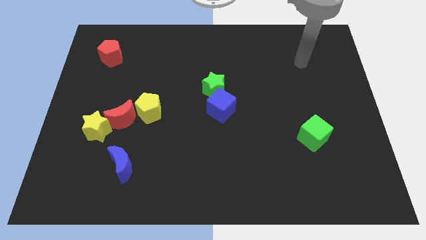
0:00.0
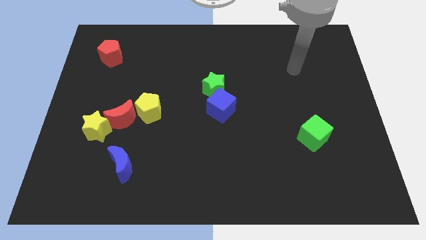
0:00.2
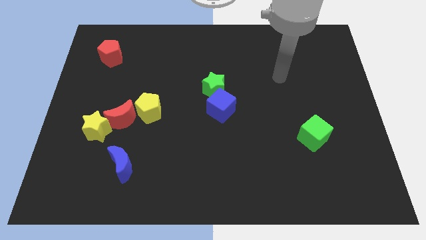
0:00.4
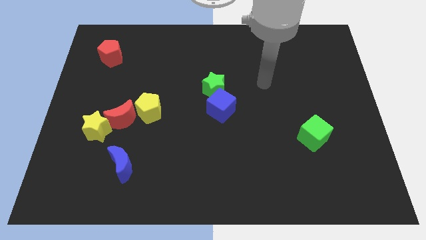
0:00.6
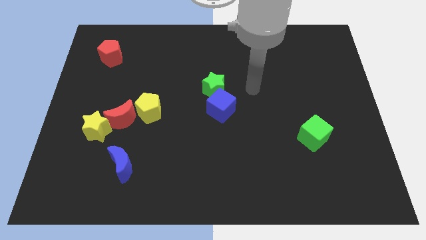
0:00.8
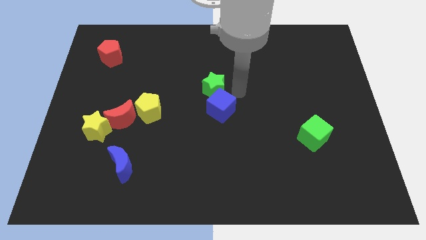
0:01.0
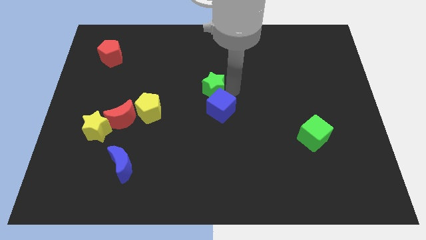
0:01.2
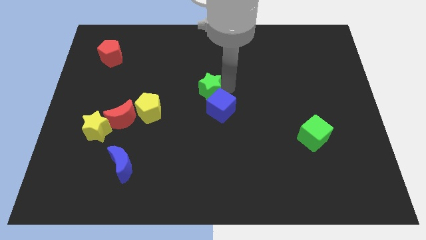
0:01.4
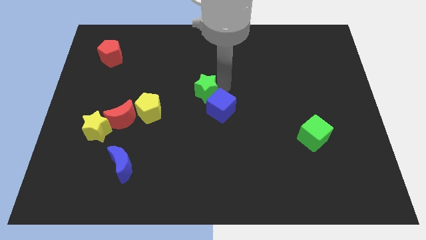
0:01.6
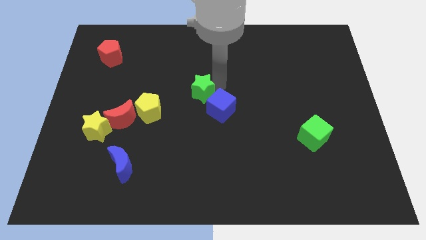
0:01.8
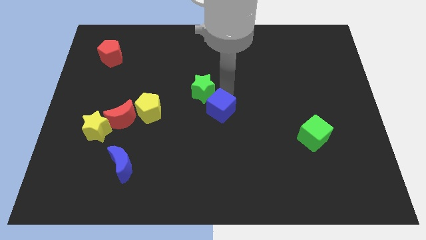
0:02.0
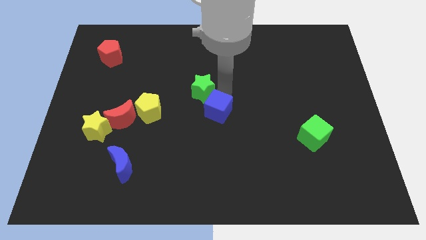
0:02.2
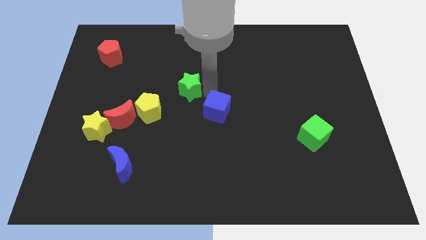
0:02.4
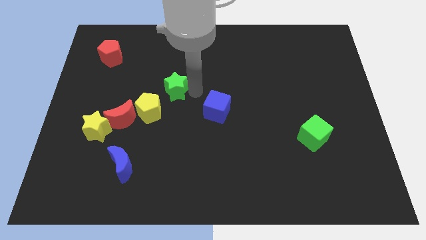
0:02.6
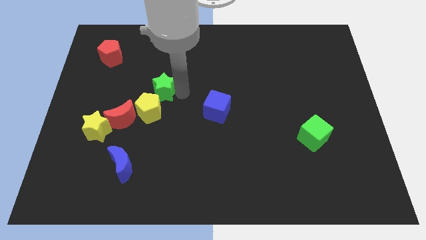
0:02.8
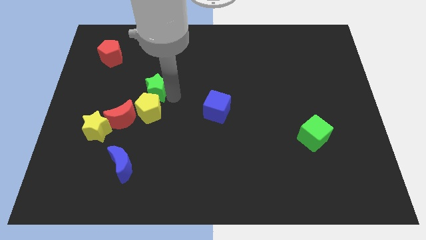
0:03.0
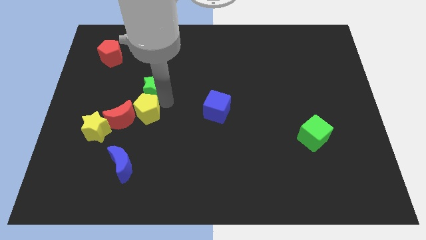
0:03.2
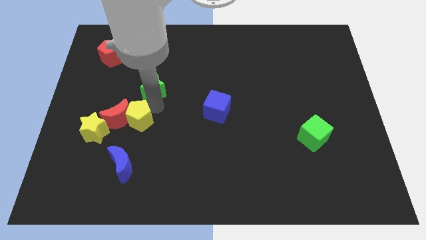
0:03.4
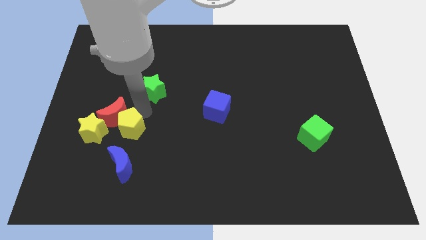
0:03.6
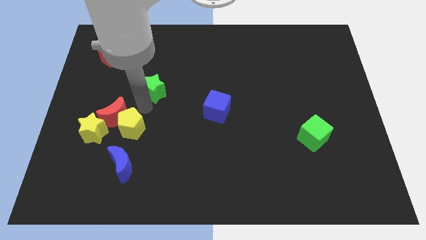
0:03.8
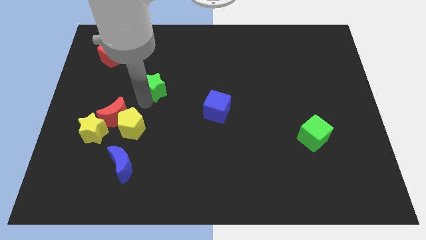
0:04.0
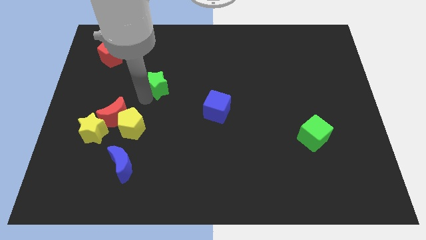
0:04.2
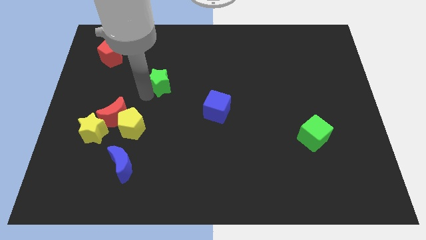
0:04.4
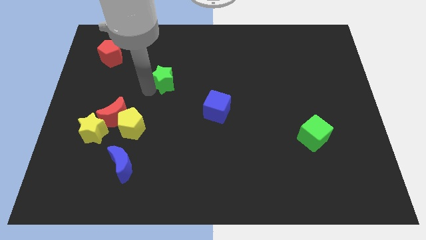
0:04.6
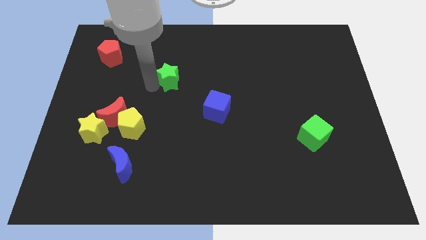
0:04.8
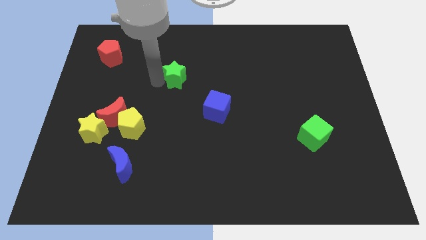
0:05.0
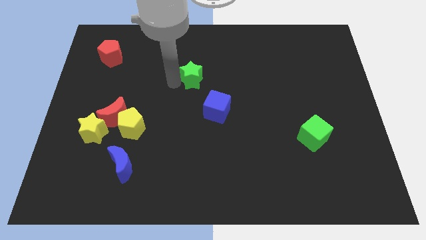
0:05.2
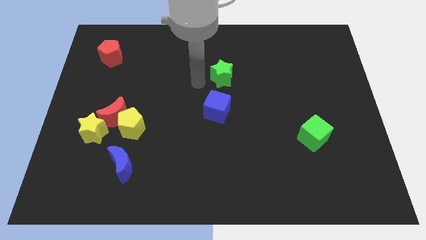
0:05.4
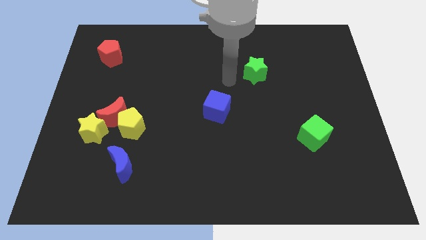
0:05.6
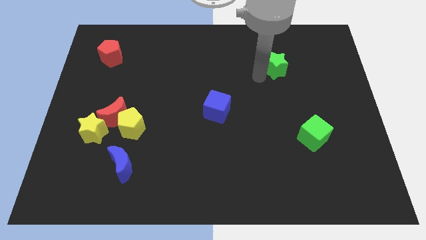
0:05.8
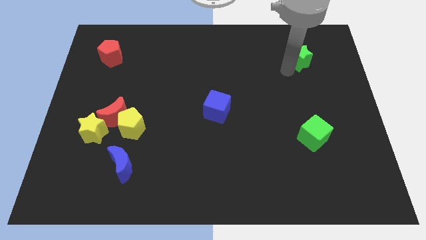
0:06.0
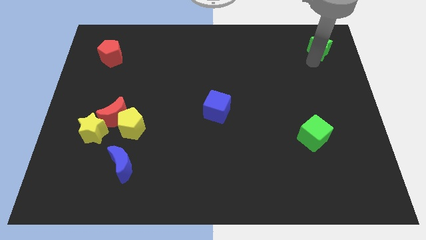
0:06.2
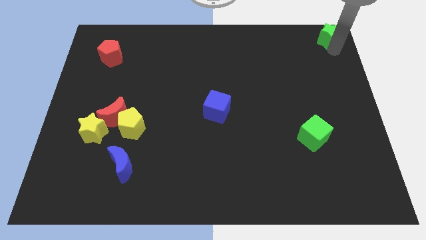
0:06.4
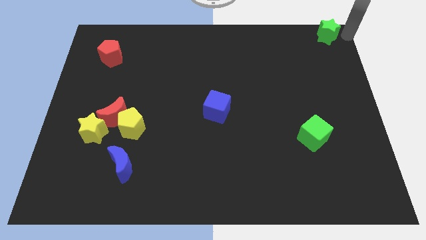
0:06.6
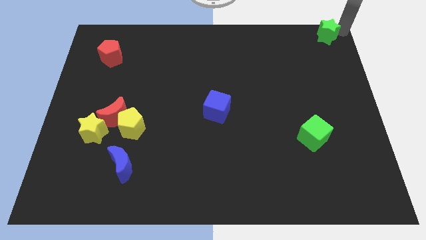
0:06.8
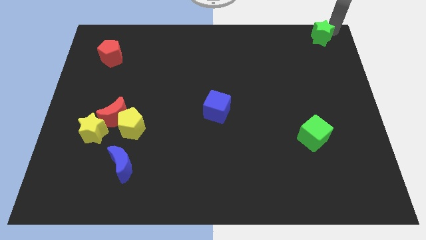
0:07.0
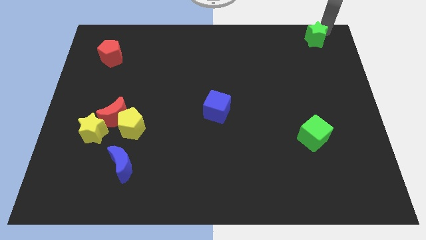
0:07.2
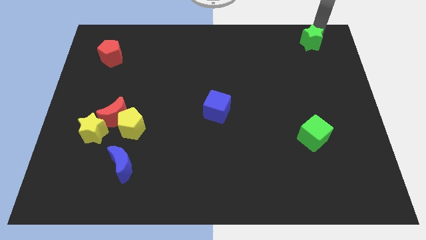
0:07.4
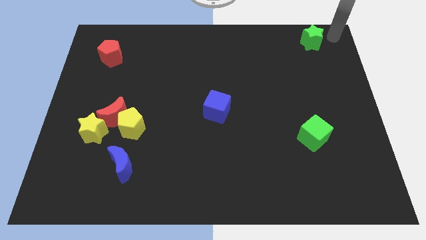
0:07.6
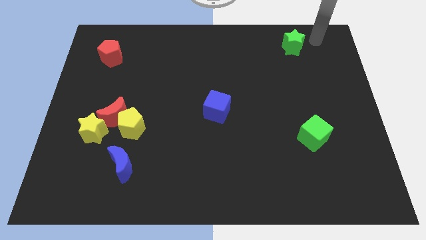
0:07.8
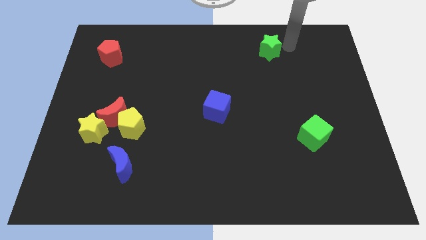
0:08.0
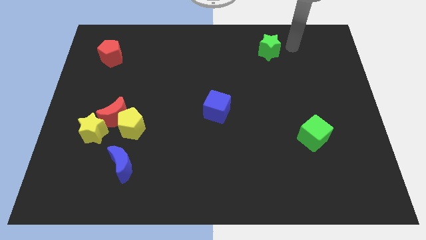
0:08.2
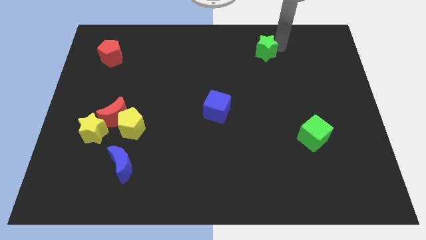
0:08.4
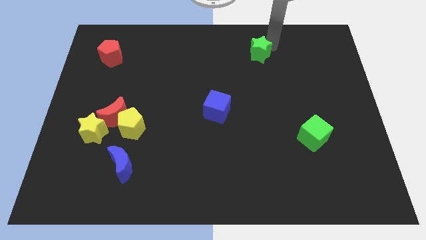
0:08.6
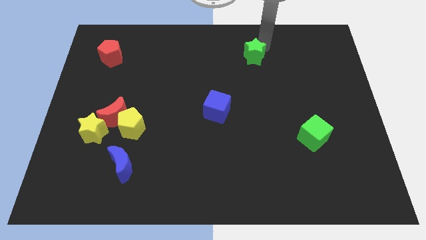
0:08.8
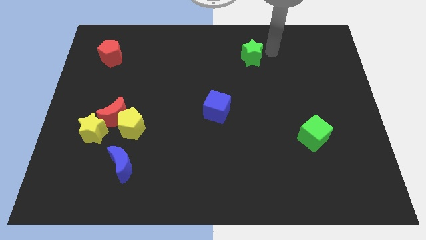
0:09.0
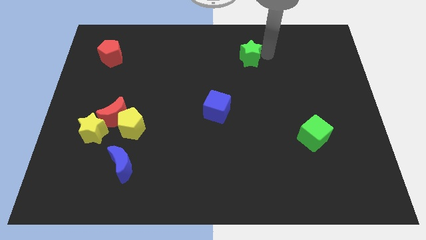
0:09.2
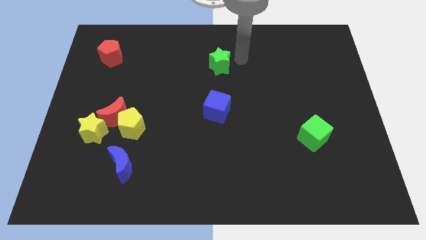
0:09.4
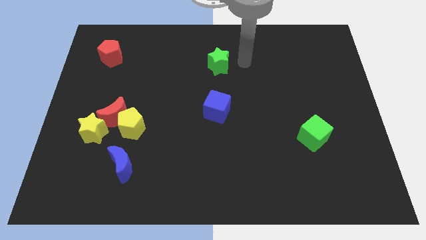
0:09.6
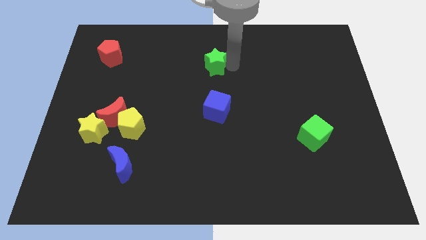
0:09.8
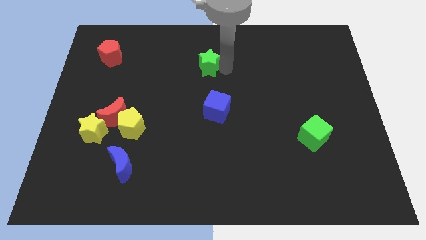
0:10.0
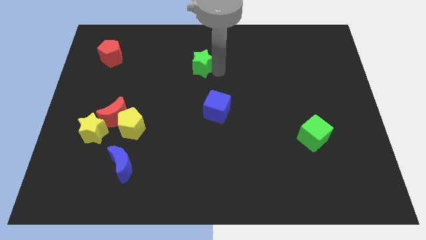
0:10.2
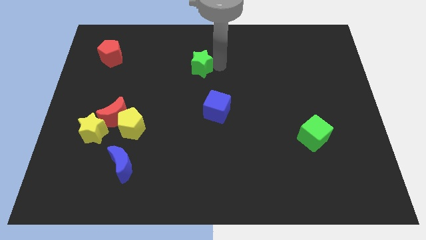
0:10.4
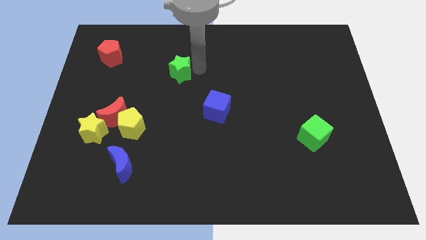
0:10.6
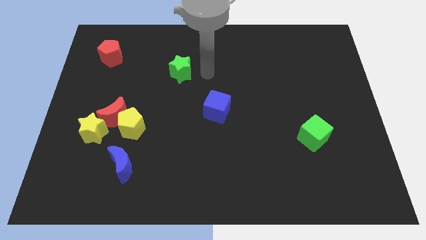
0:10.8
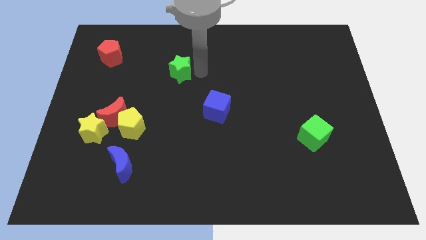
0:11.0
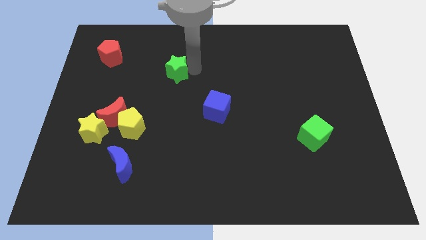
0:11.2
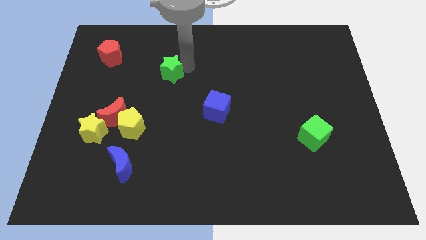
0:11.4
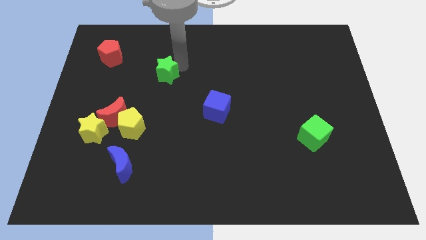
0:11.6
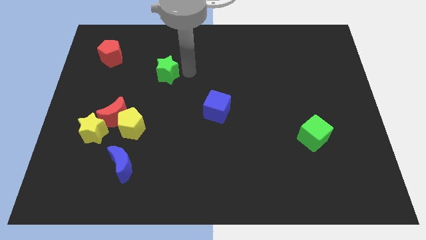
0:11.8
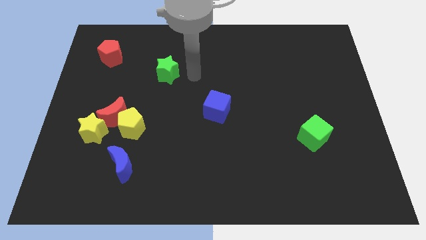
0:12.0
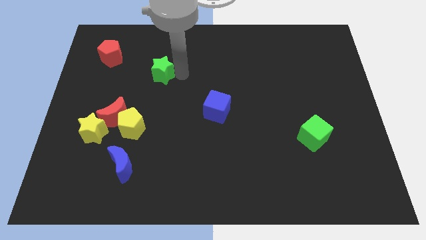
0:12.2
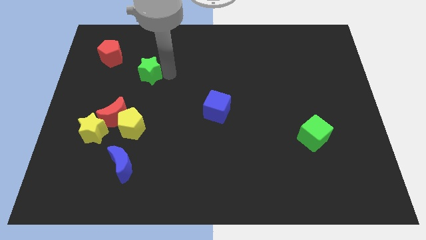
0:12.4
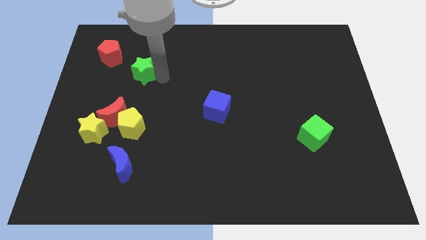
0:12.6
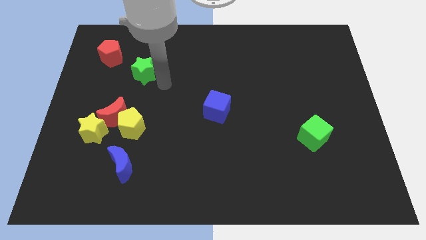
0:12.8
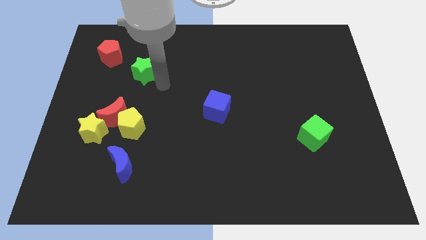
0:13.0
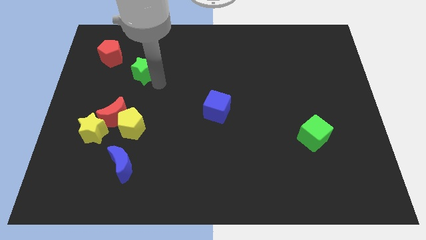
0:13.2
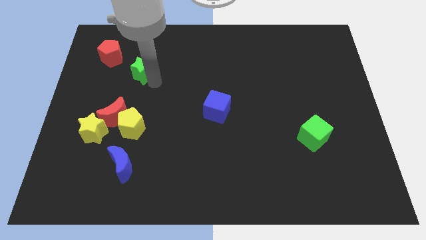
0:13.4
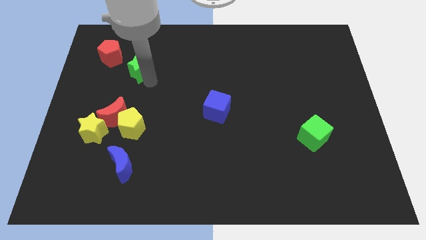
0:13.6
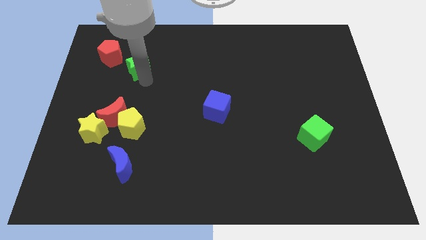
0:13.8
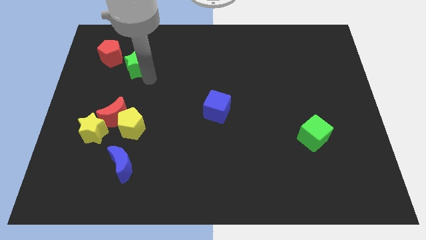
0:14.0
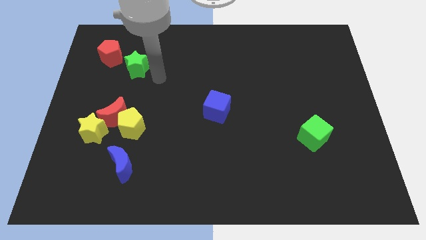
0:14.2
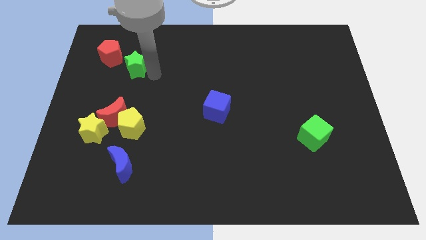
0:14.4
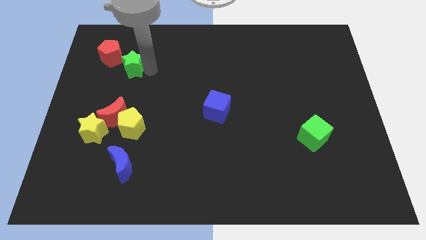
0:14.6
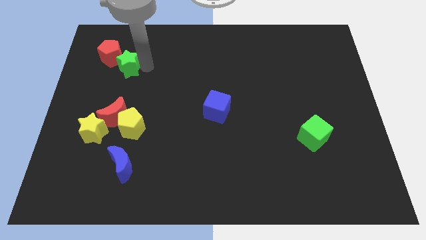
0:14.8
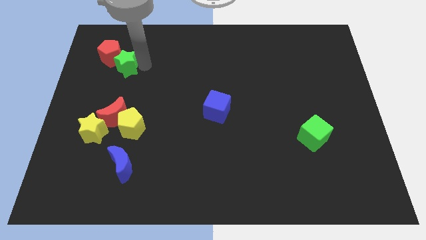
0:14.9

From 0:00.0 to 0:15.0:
slide the green star close to the red pentagon
